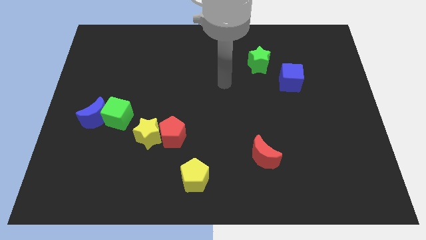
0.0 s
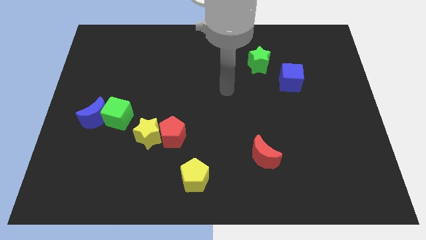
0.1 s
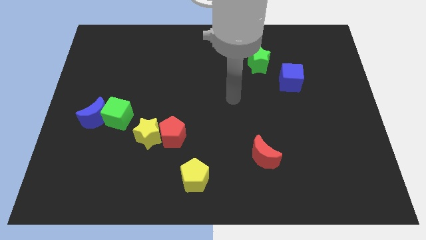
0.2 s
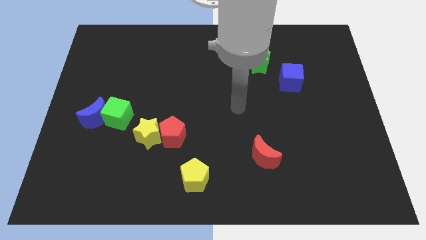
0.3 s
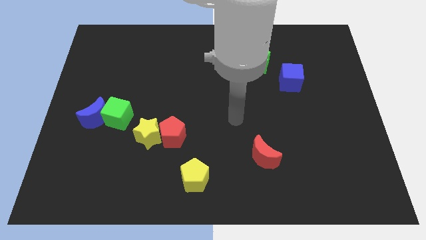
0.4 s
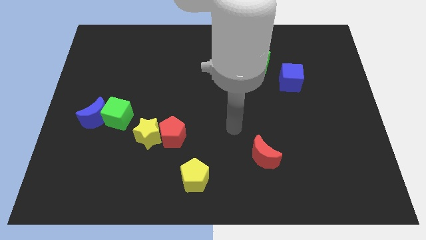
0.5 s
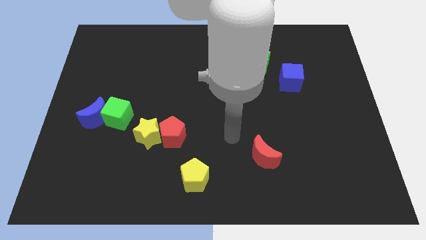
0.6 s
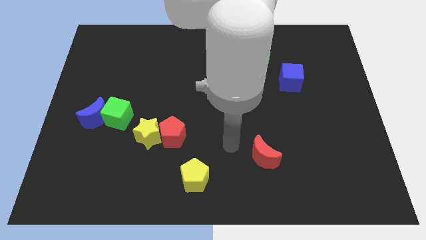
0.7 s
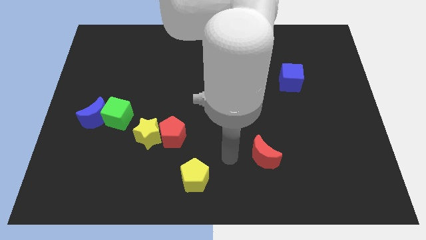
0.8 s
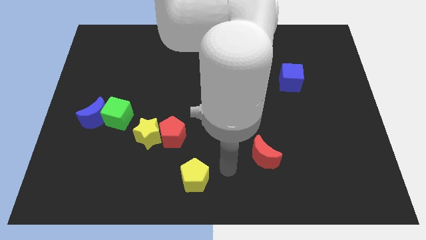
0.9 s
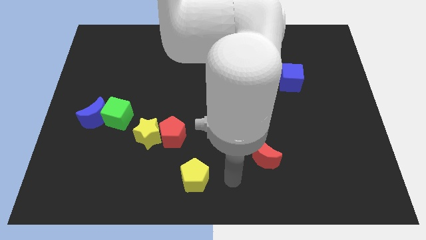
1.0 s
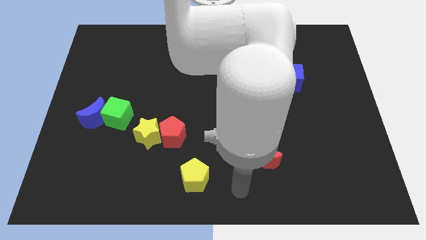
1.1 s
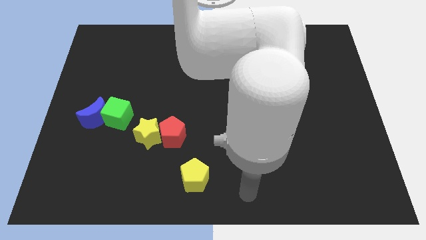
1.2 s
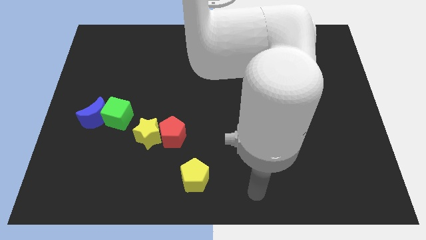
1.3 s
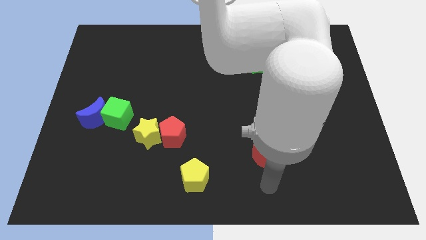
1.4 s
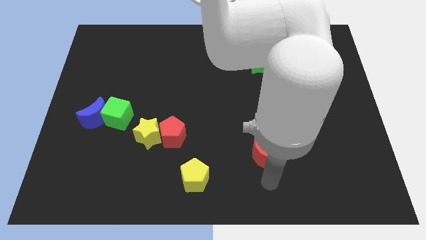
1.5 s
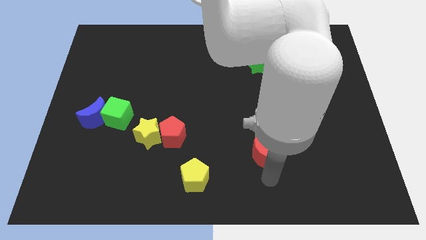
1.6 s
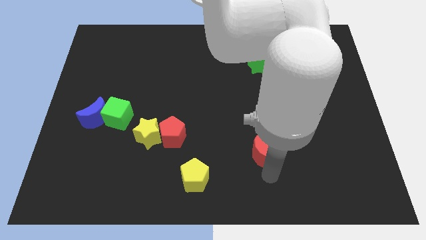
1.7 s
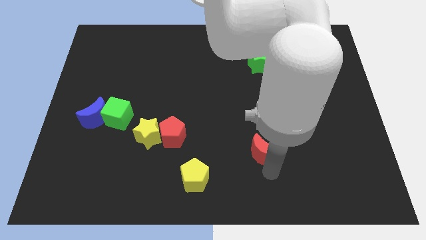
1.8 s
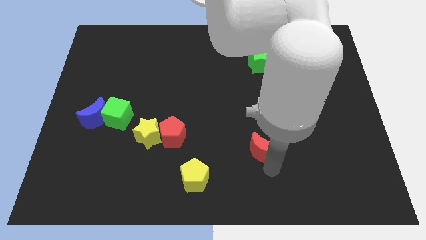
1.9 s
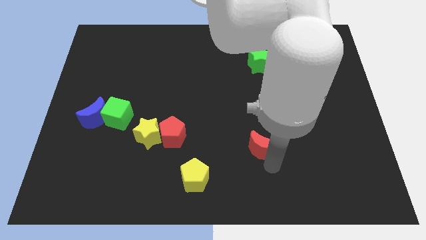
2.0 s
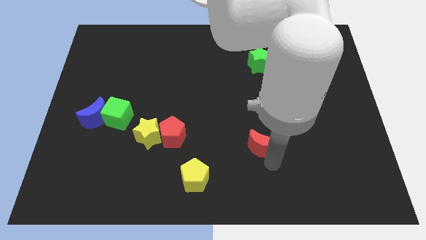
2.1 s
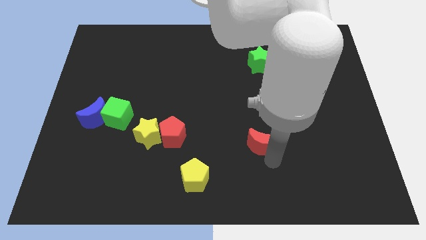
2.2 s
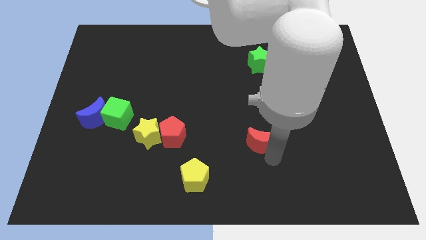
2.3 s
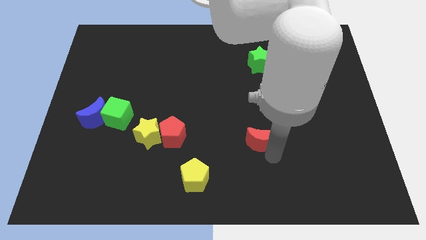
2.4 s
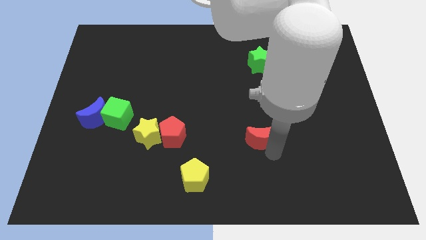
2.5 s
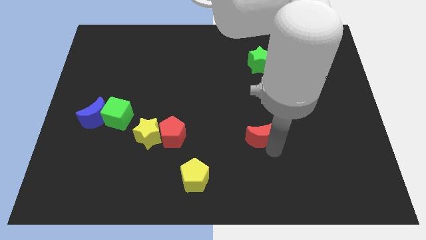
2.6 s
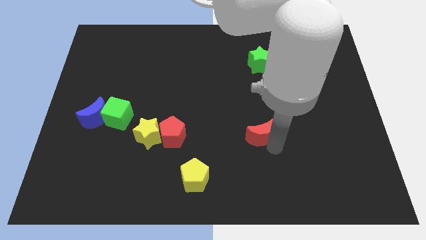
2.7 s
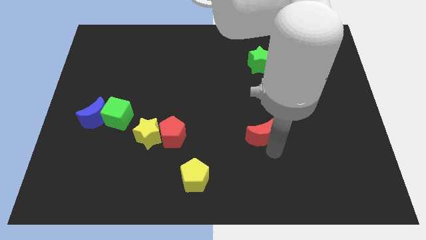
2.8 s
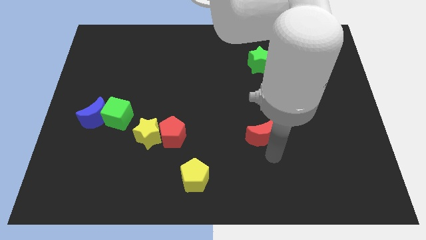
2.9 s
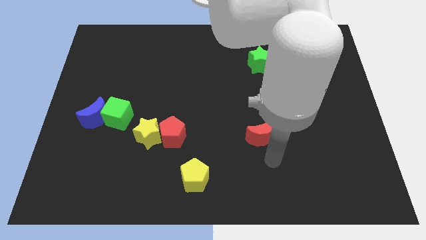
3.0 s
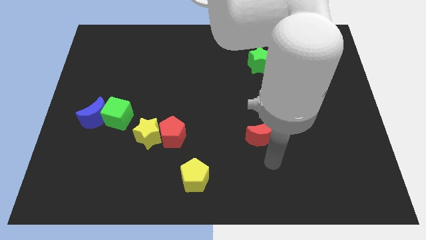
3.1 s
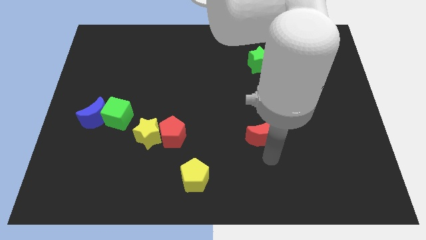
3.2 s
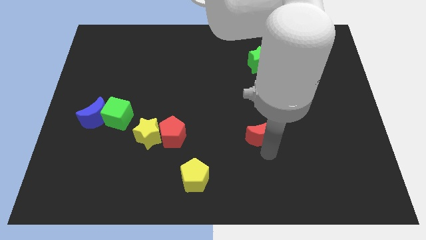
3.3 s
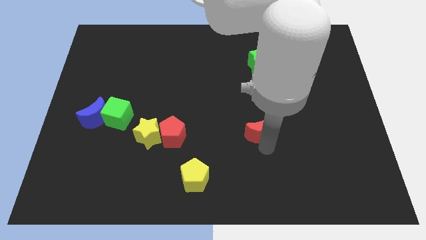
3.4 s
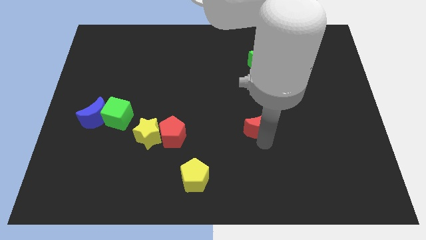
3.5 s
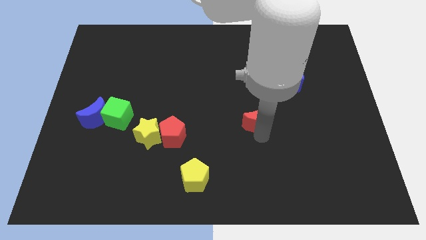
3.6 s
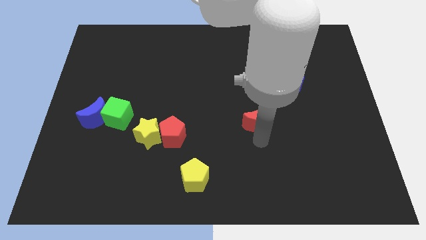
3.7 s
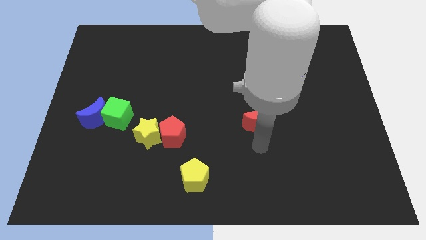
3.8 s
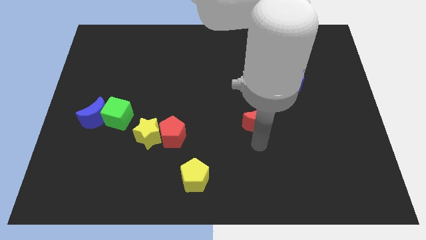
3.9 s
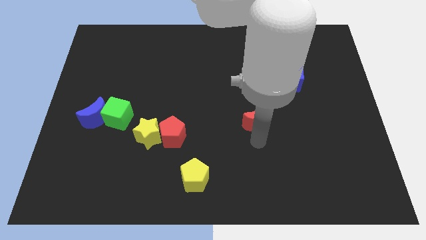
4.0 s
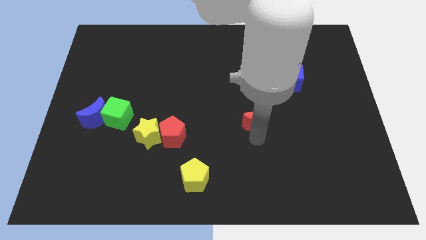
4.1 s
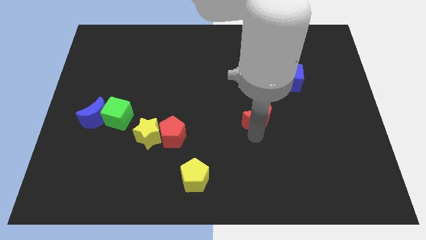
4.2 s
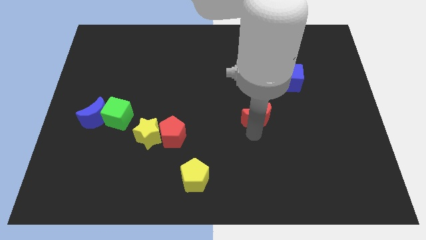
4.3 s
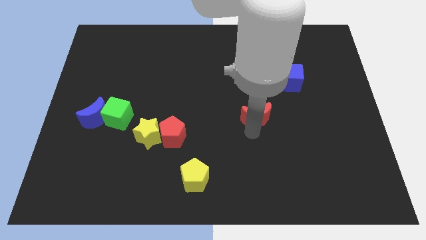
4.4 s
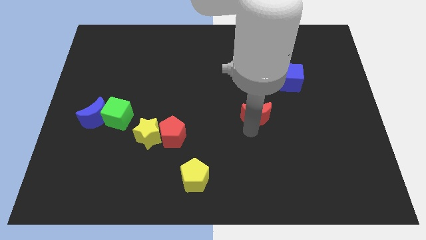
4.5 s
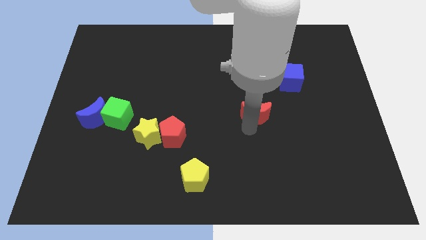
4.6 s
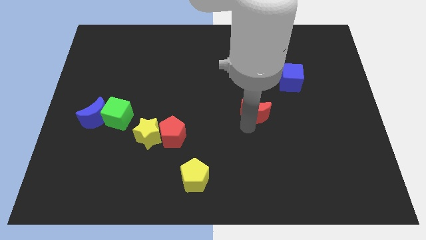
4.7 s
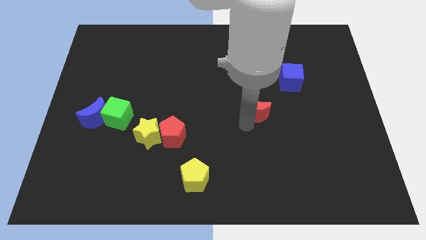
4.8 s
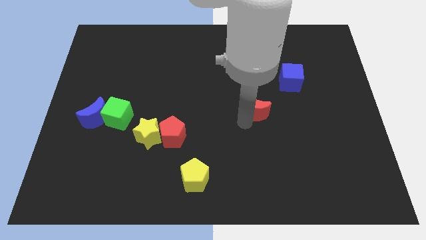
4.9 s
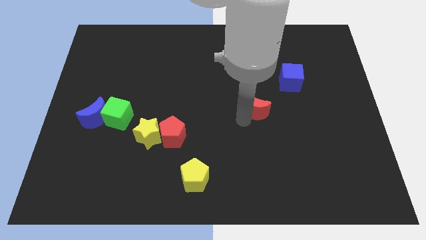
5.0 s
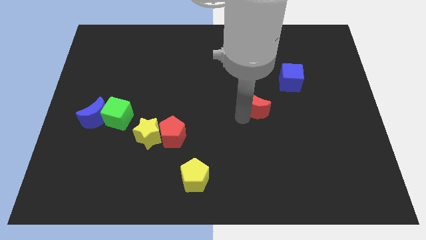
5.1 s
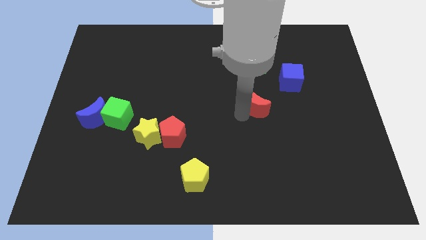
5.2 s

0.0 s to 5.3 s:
slide the red moon to the bottom left side of the blue cube

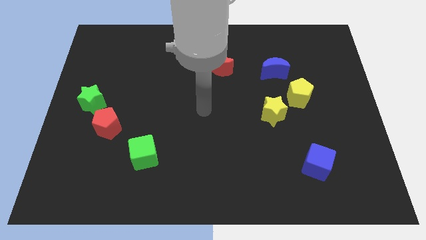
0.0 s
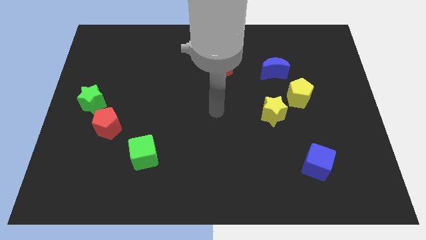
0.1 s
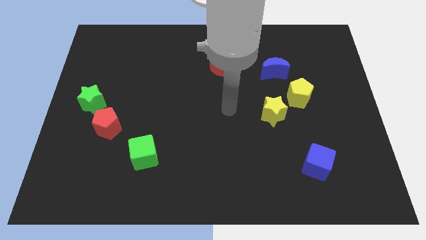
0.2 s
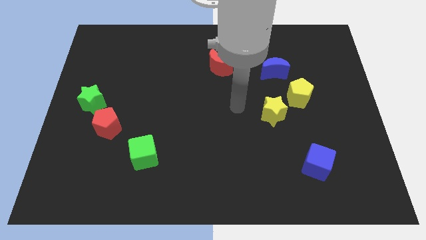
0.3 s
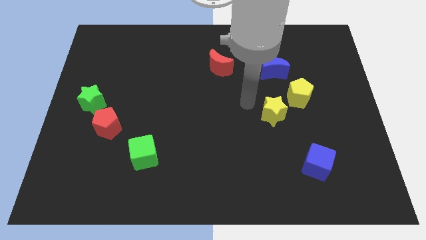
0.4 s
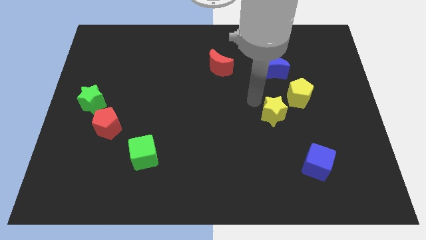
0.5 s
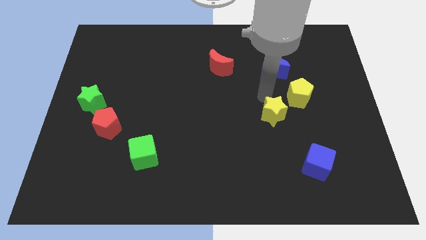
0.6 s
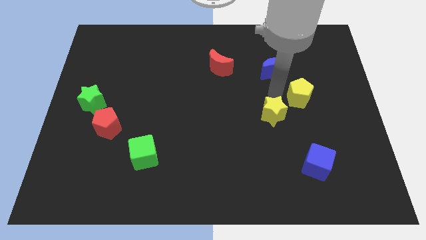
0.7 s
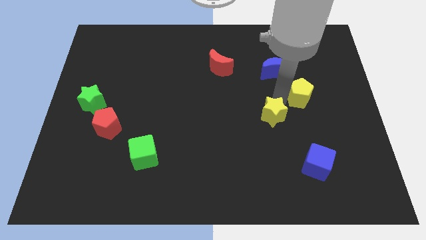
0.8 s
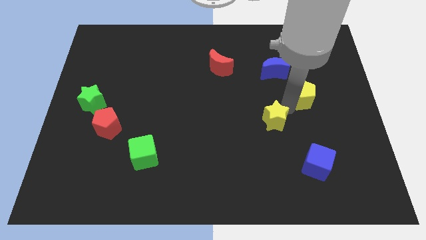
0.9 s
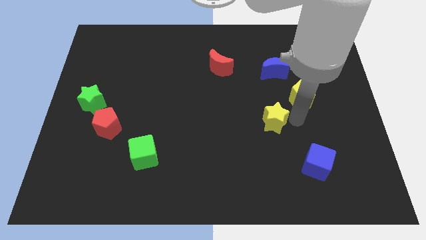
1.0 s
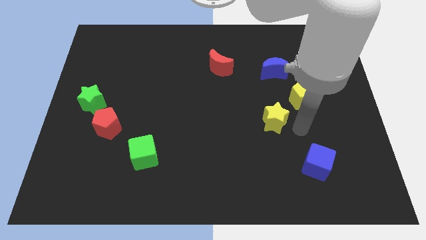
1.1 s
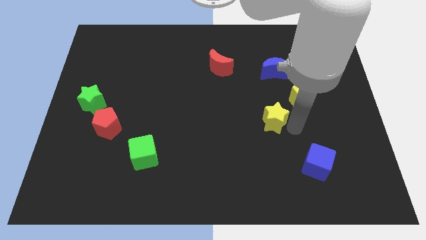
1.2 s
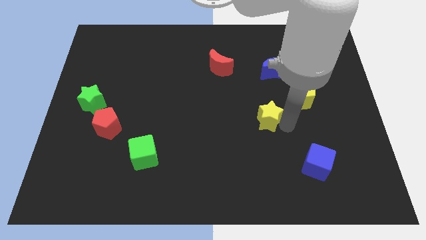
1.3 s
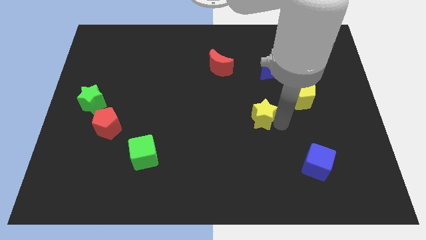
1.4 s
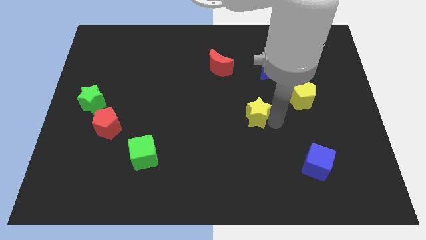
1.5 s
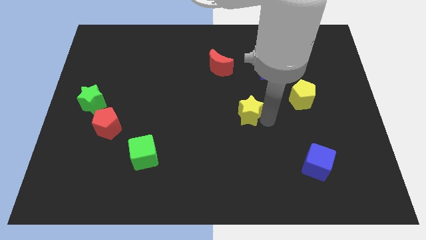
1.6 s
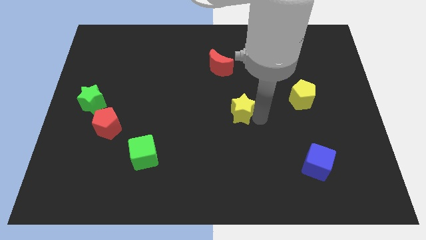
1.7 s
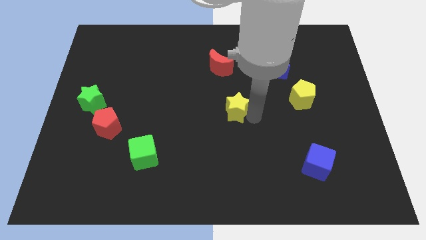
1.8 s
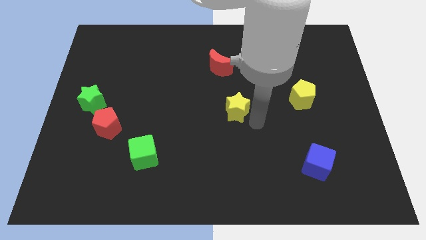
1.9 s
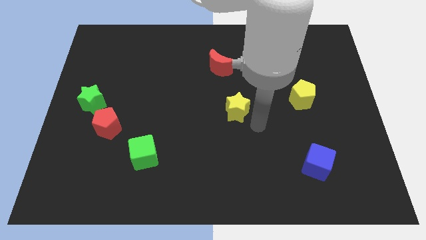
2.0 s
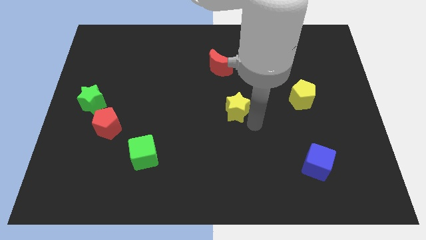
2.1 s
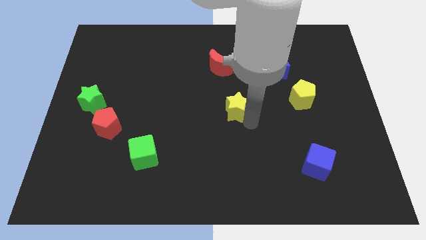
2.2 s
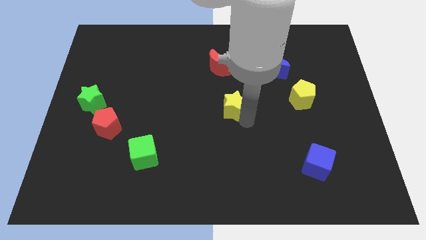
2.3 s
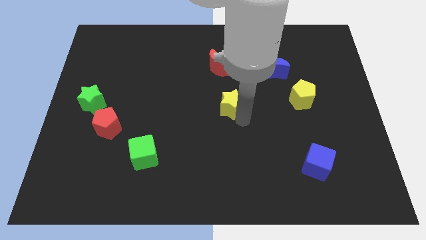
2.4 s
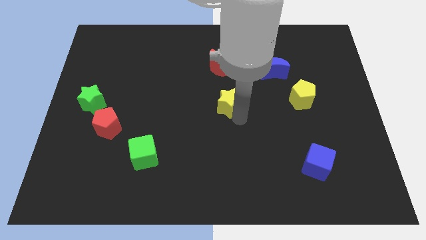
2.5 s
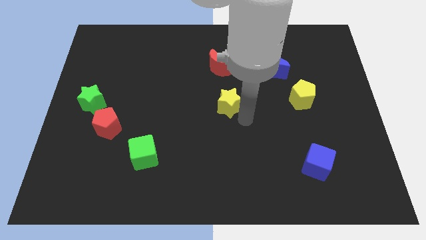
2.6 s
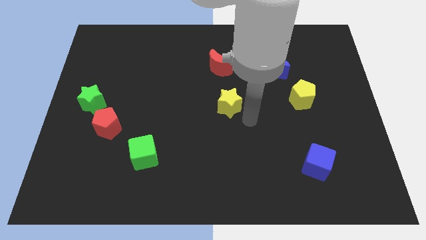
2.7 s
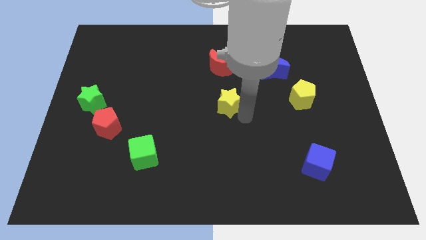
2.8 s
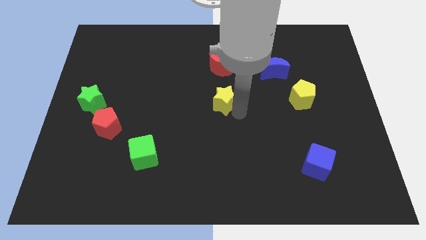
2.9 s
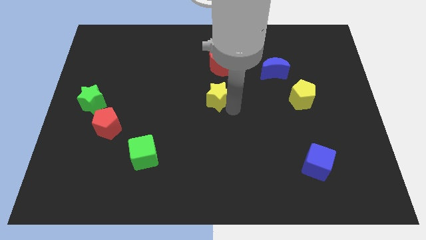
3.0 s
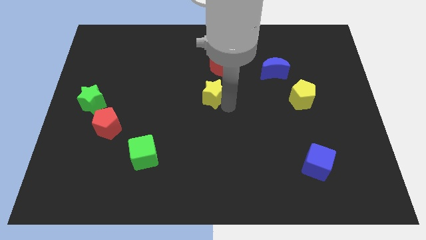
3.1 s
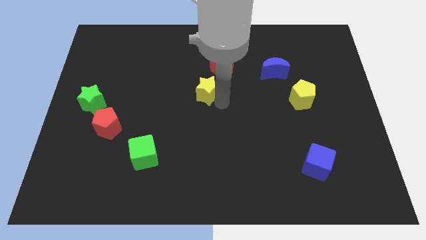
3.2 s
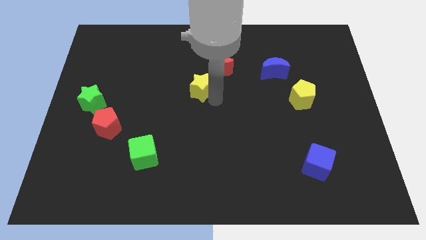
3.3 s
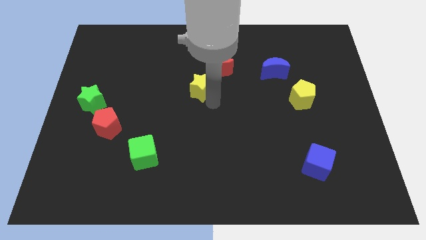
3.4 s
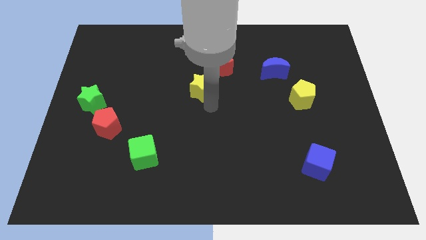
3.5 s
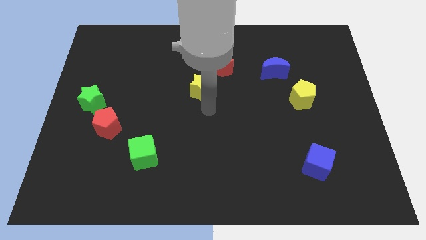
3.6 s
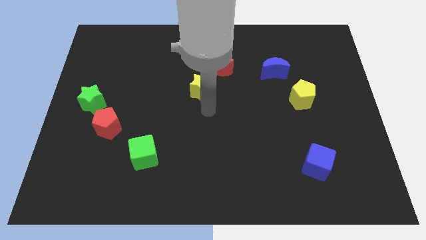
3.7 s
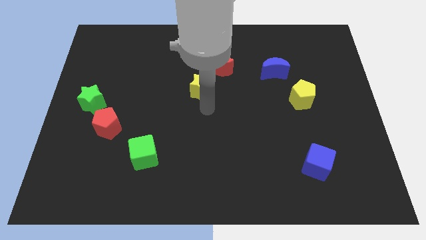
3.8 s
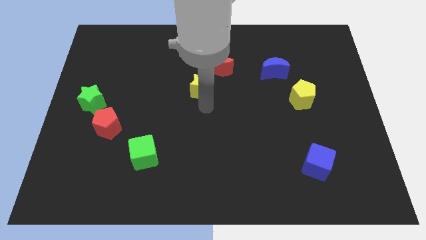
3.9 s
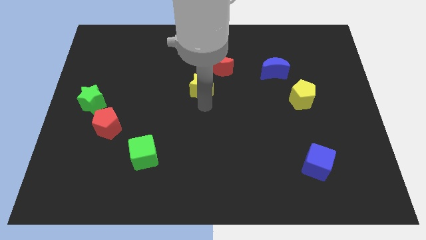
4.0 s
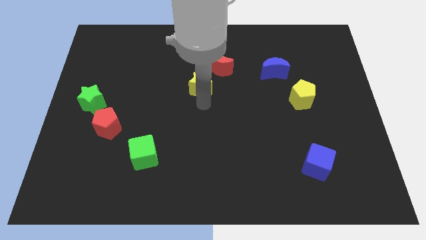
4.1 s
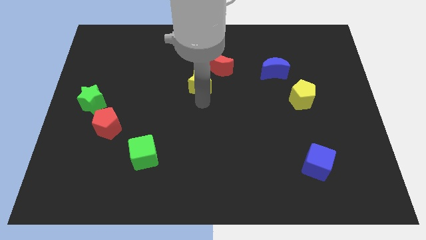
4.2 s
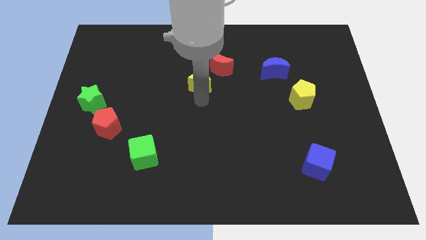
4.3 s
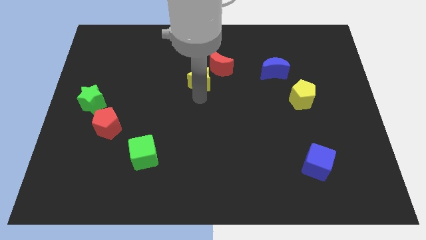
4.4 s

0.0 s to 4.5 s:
slide the yellow star to the left of the red moon
